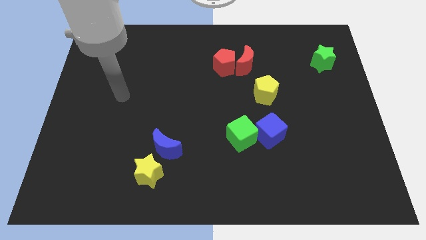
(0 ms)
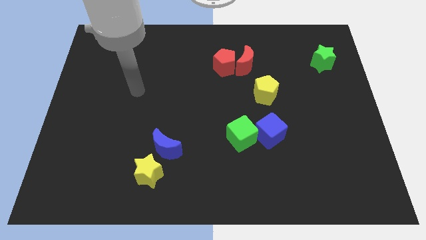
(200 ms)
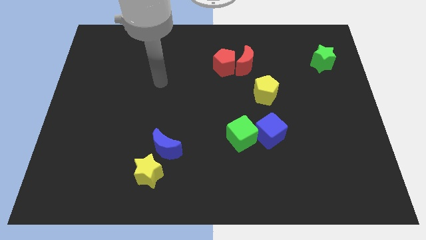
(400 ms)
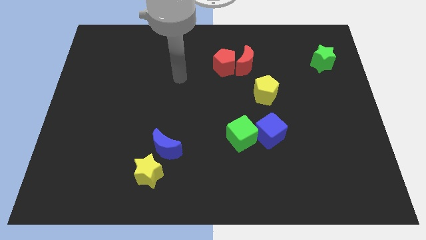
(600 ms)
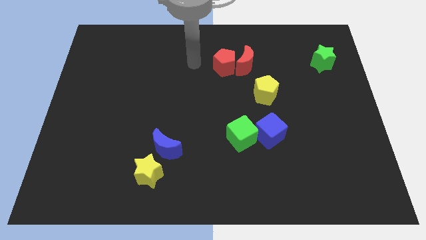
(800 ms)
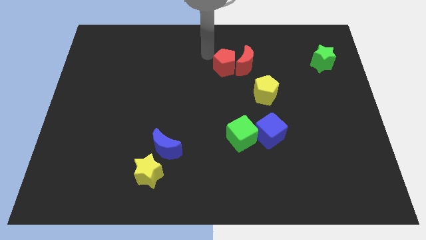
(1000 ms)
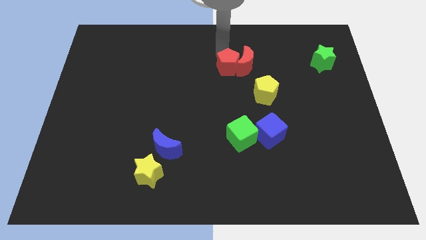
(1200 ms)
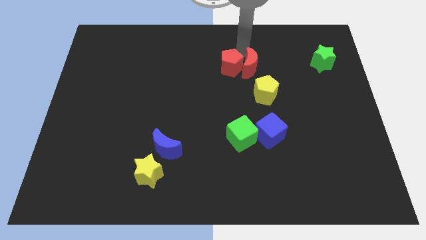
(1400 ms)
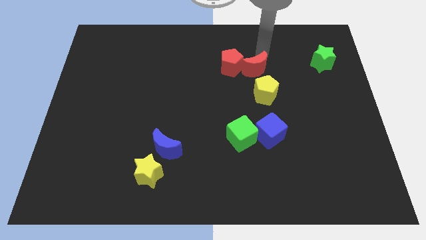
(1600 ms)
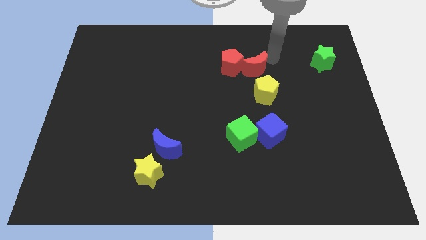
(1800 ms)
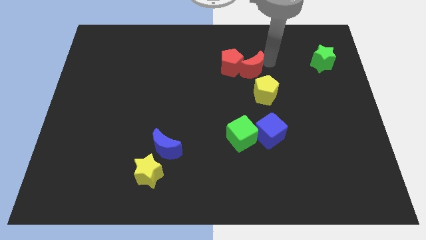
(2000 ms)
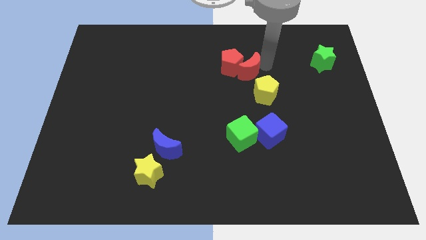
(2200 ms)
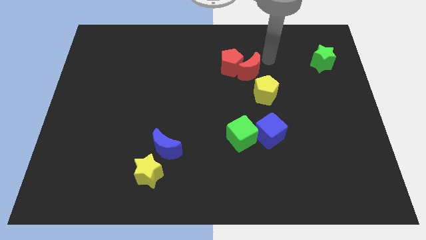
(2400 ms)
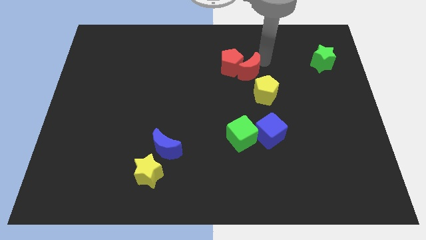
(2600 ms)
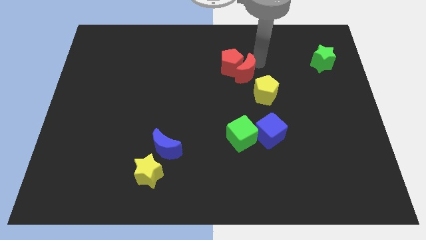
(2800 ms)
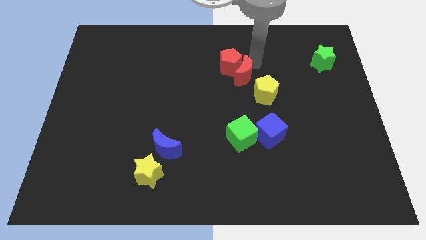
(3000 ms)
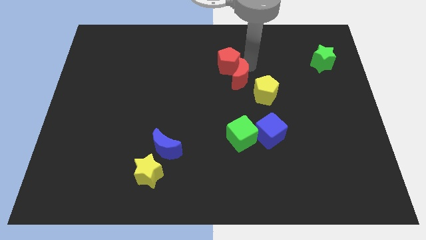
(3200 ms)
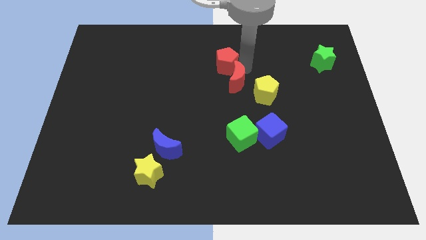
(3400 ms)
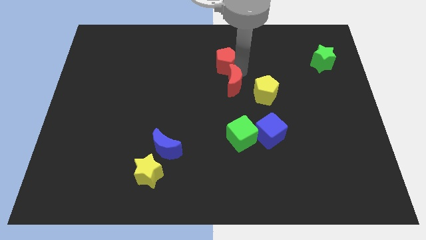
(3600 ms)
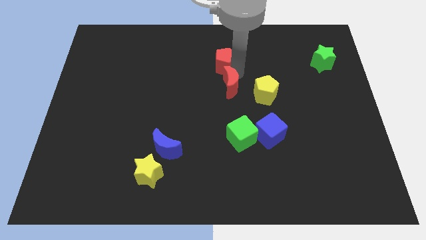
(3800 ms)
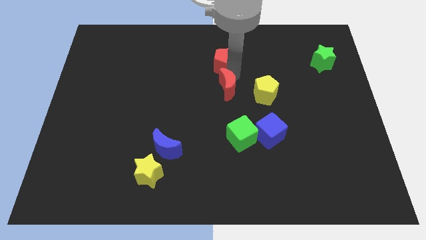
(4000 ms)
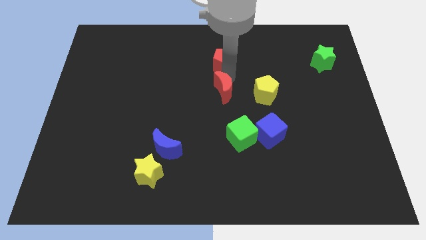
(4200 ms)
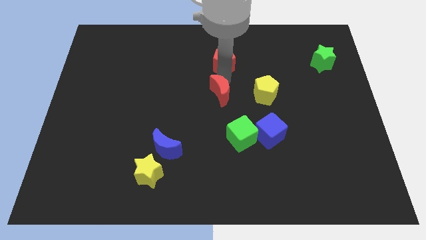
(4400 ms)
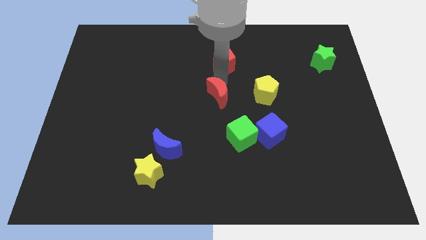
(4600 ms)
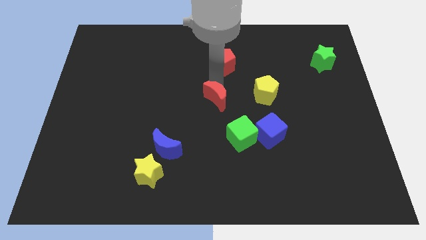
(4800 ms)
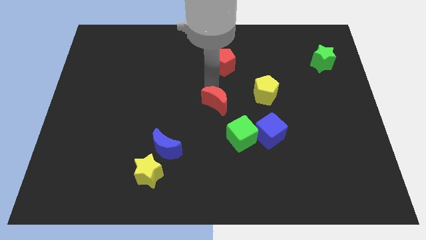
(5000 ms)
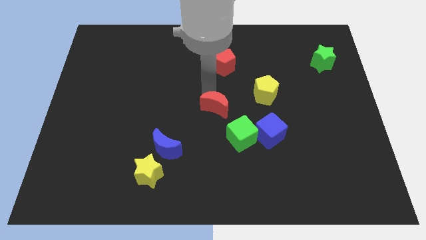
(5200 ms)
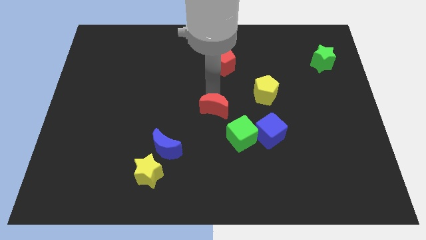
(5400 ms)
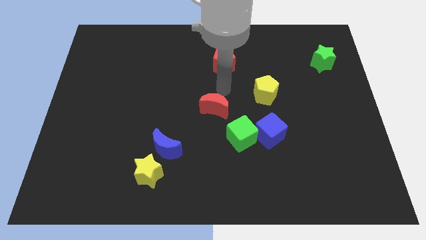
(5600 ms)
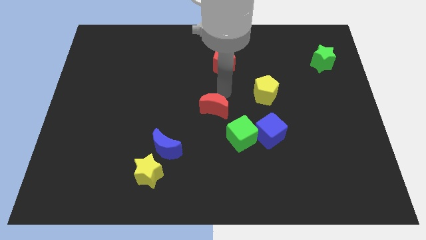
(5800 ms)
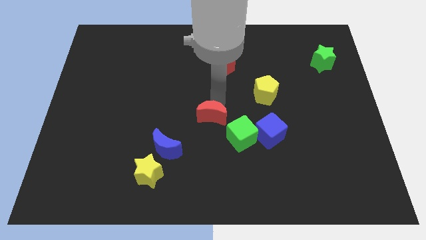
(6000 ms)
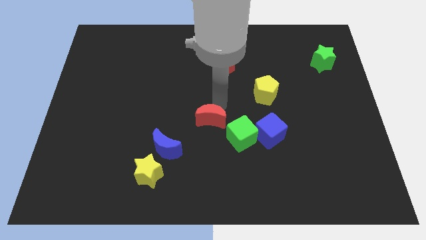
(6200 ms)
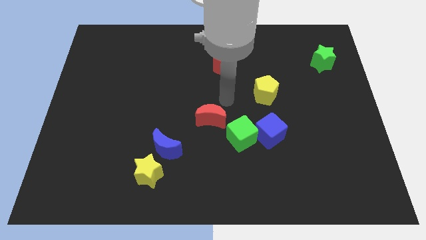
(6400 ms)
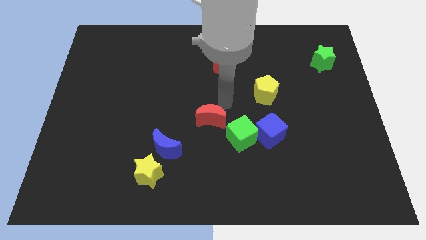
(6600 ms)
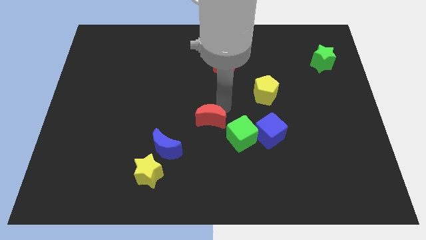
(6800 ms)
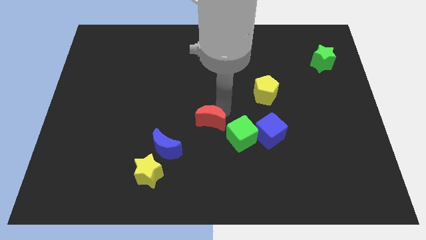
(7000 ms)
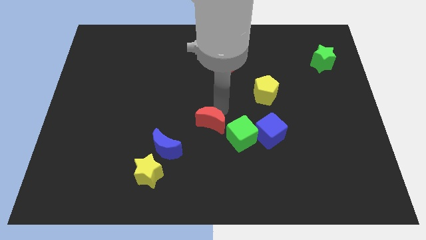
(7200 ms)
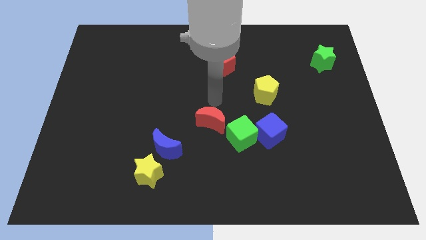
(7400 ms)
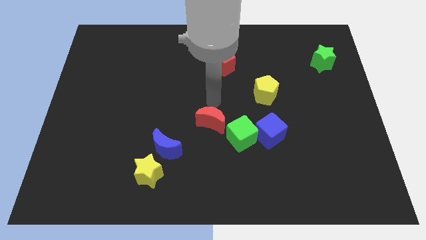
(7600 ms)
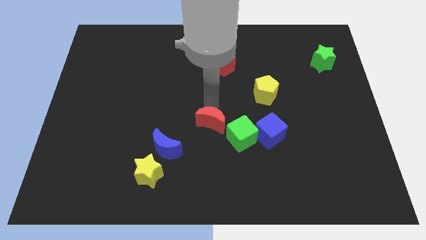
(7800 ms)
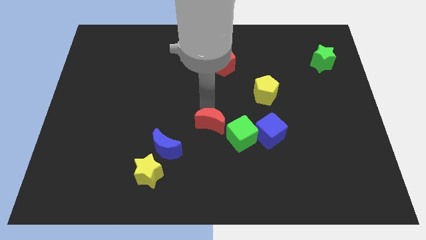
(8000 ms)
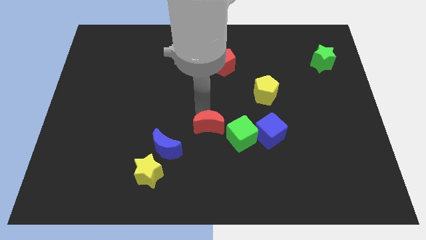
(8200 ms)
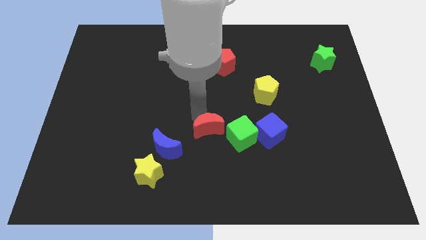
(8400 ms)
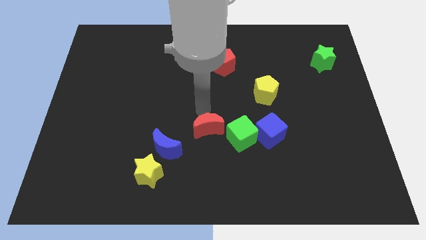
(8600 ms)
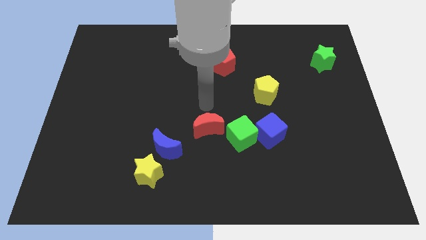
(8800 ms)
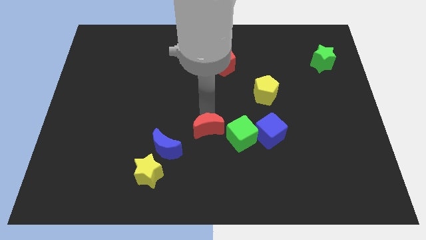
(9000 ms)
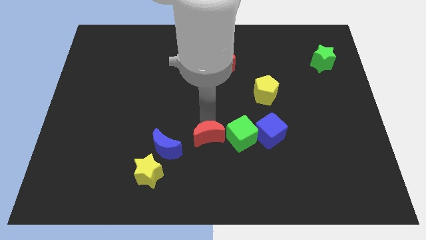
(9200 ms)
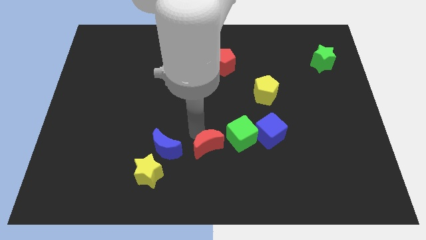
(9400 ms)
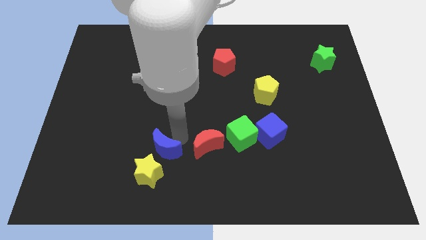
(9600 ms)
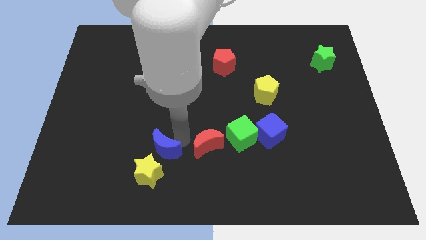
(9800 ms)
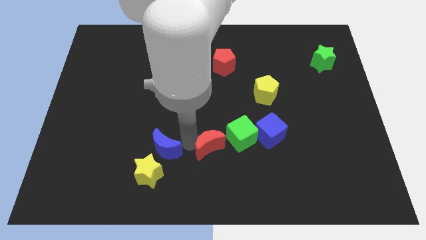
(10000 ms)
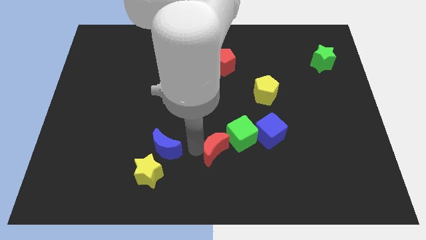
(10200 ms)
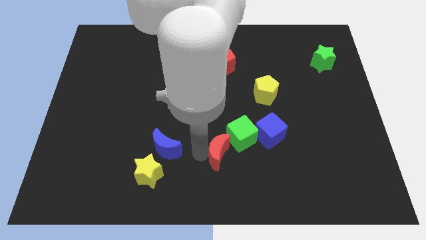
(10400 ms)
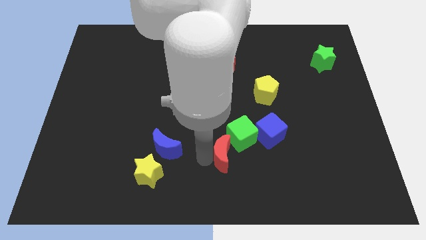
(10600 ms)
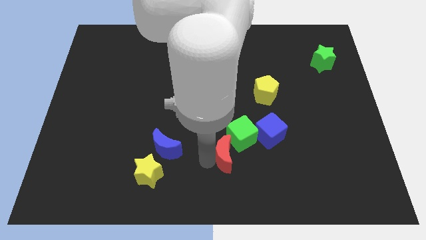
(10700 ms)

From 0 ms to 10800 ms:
push the red moon to the bottom left of the blue cube

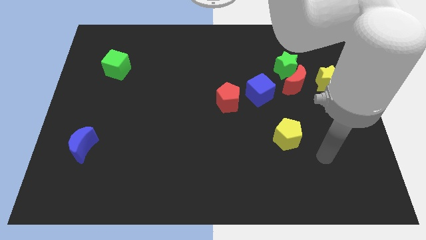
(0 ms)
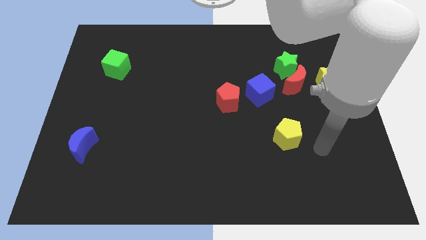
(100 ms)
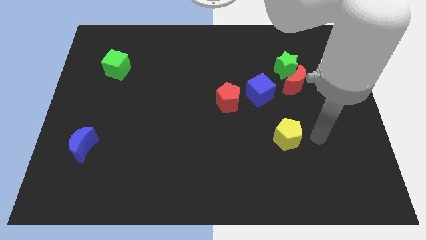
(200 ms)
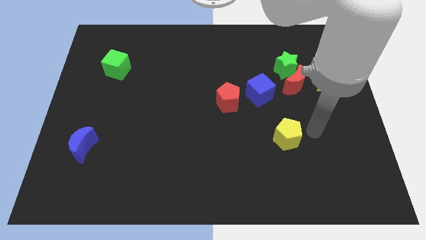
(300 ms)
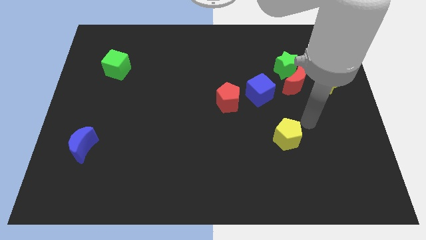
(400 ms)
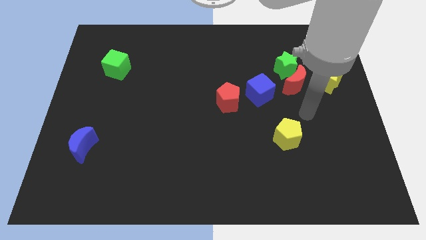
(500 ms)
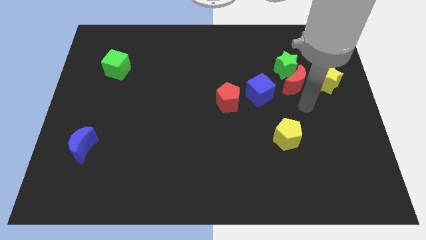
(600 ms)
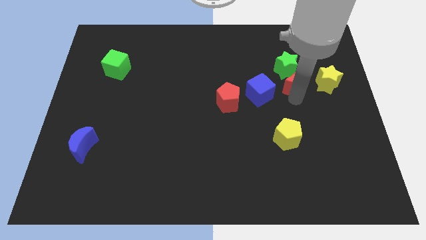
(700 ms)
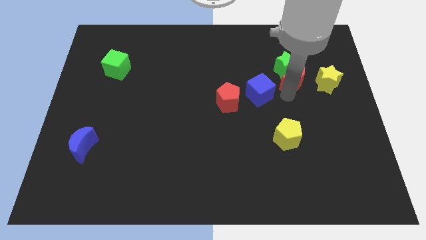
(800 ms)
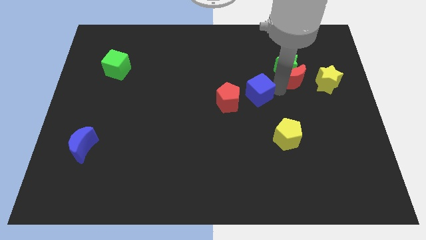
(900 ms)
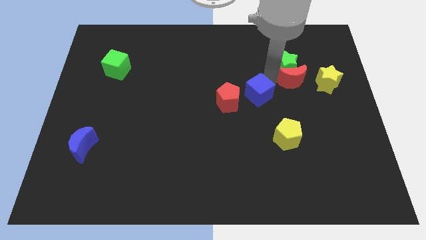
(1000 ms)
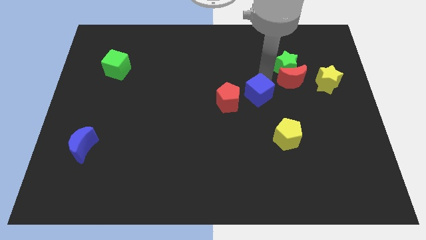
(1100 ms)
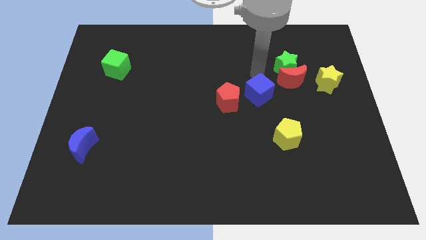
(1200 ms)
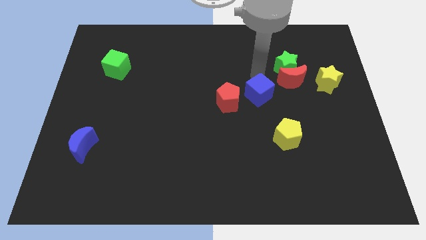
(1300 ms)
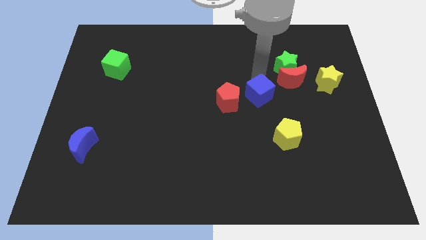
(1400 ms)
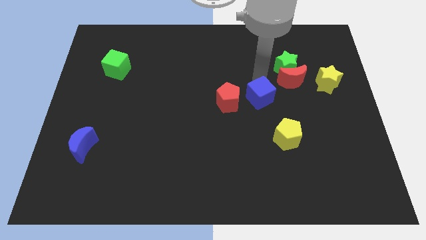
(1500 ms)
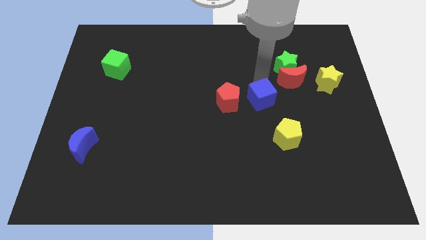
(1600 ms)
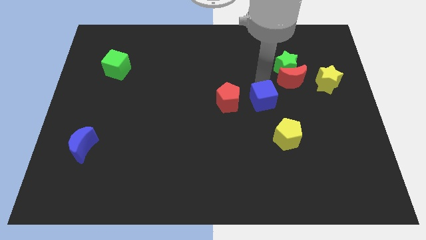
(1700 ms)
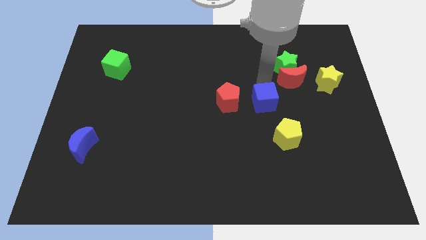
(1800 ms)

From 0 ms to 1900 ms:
move the blue cube to the top left of the yellow pentagon
